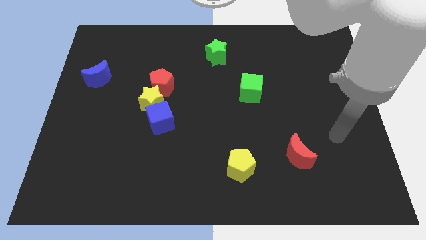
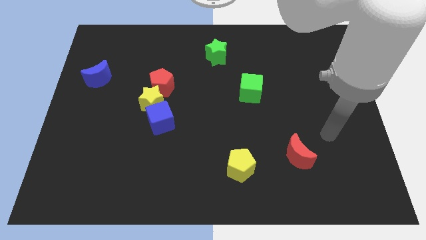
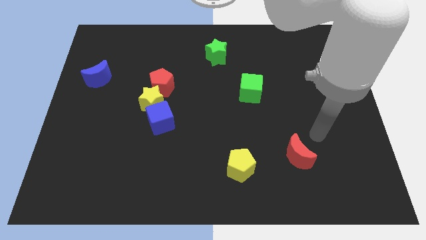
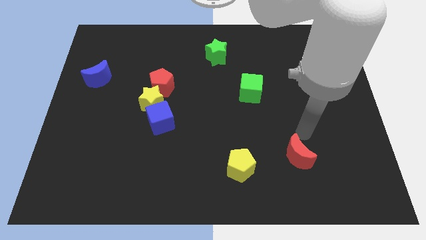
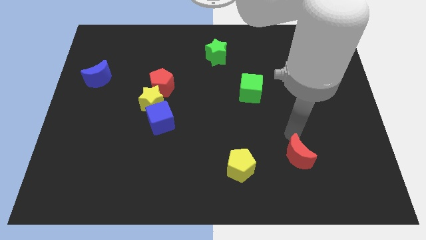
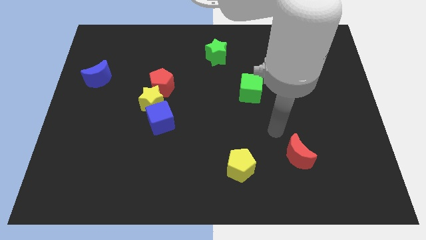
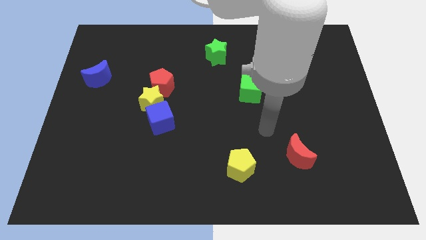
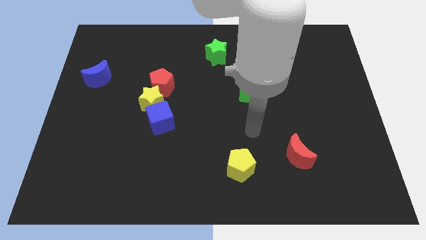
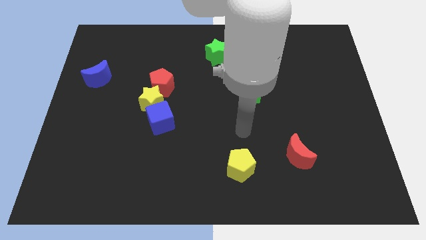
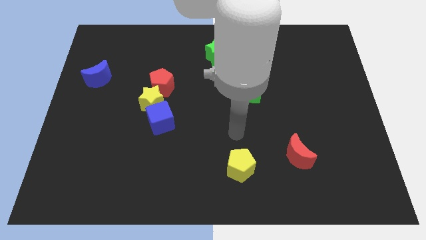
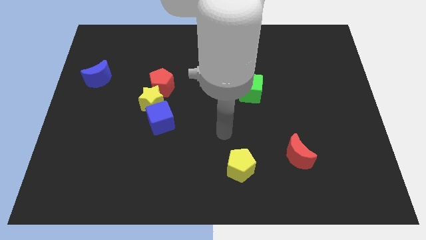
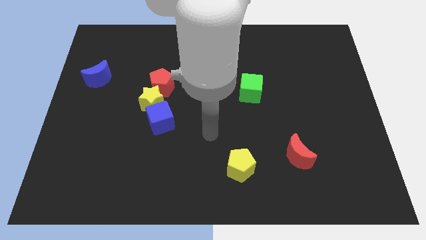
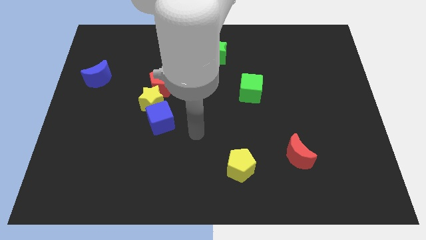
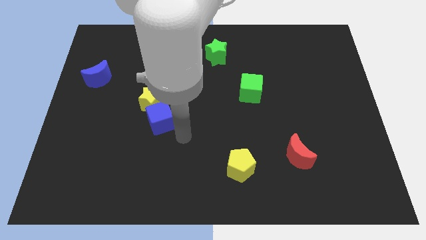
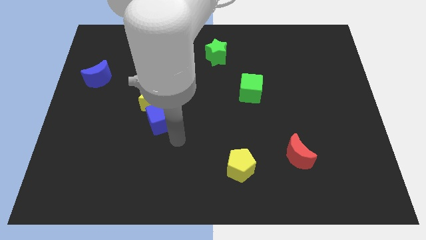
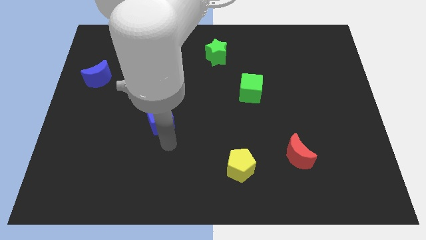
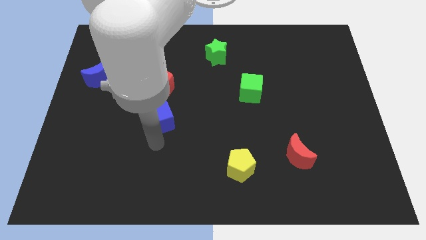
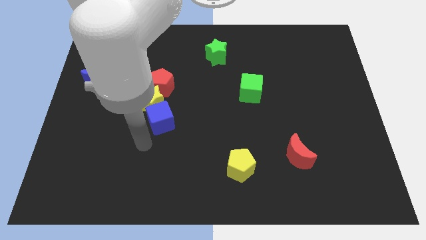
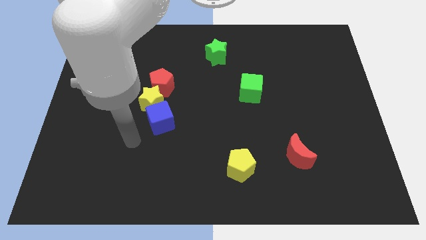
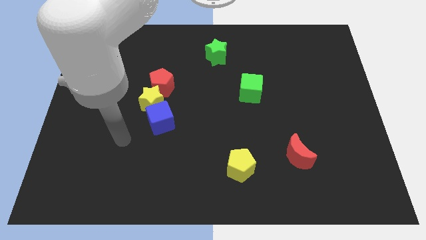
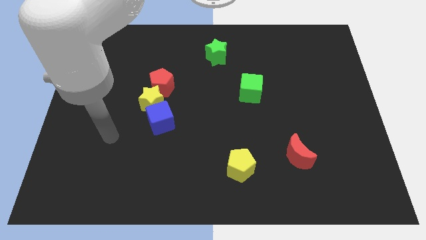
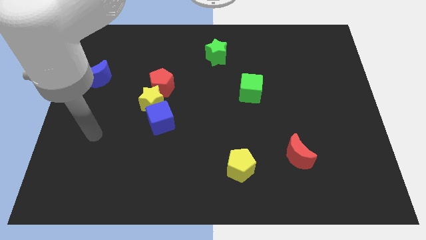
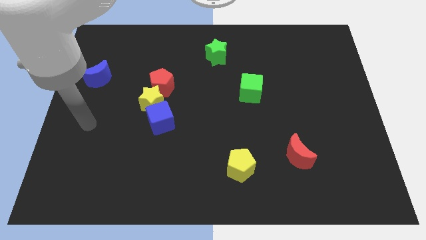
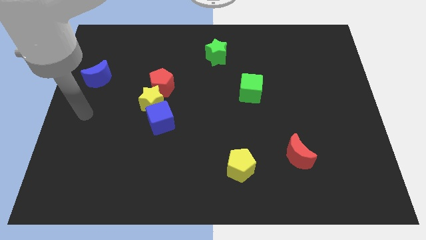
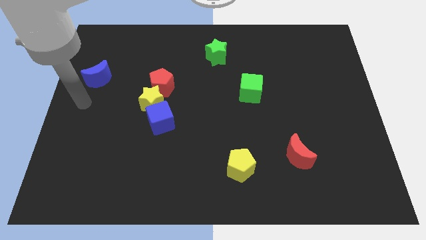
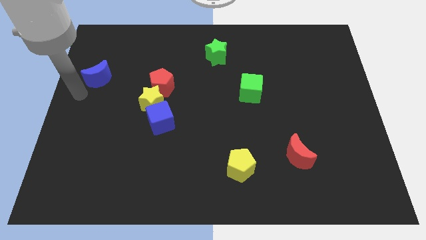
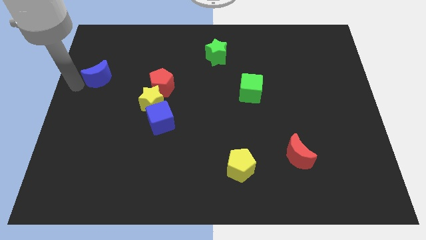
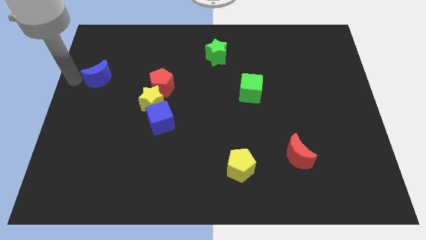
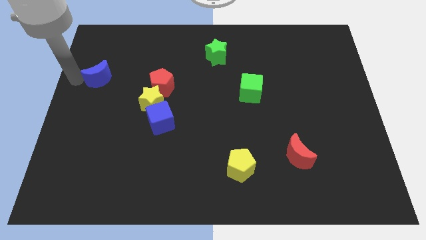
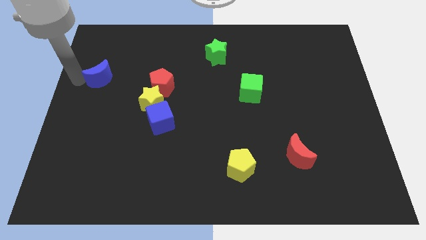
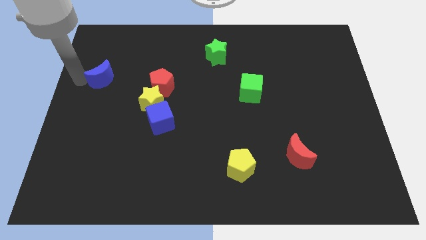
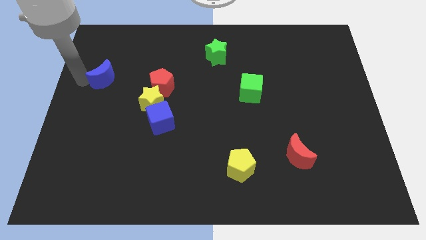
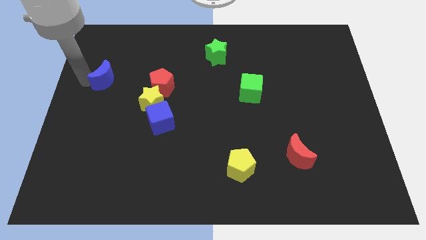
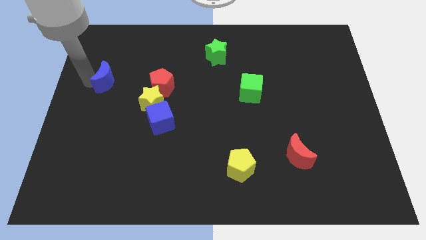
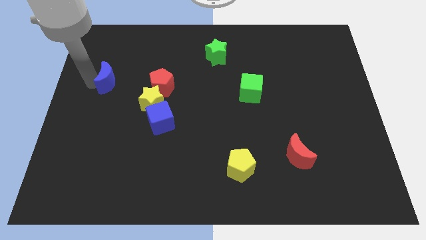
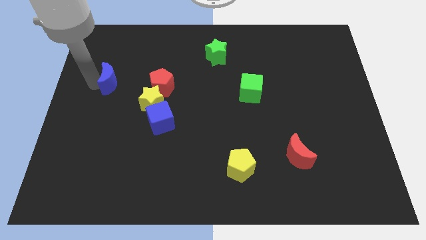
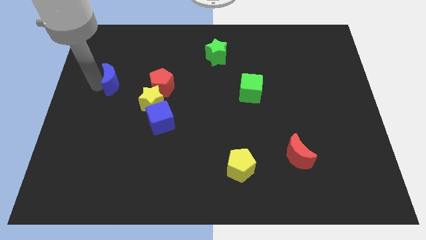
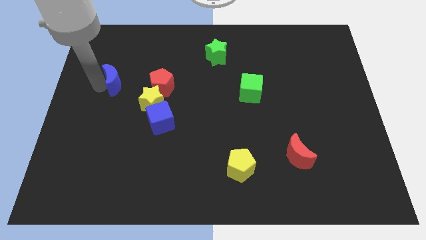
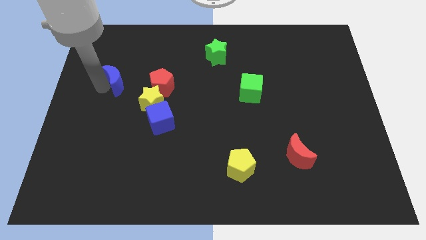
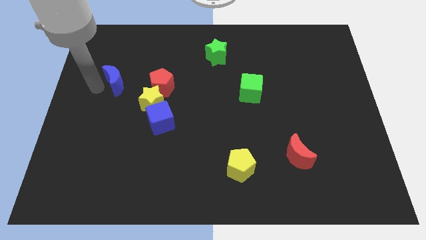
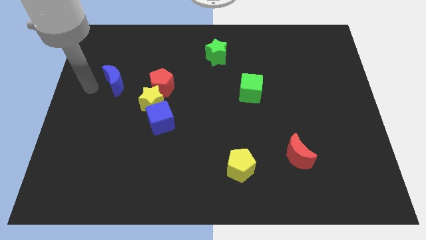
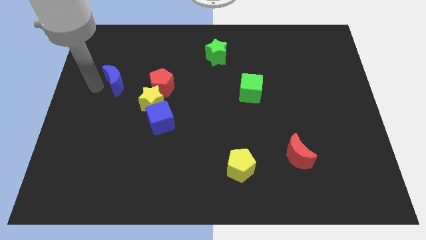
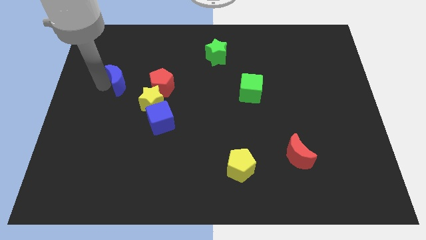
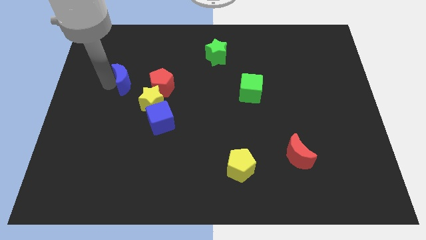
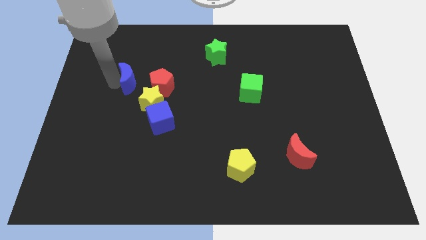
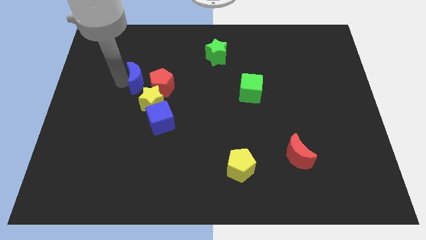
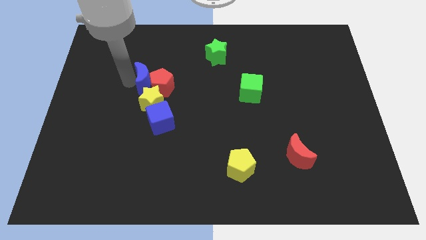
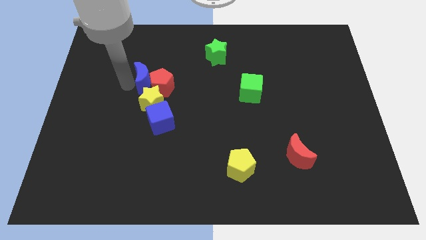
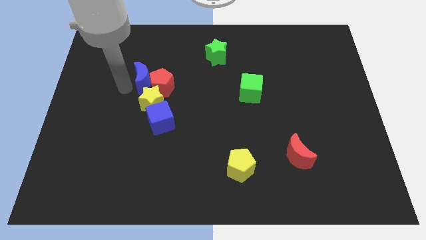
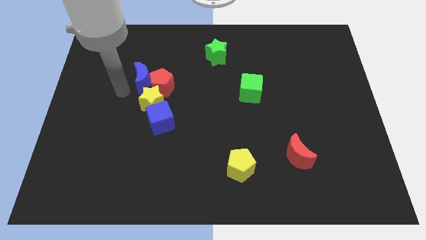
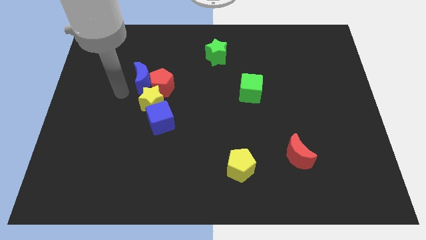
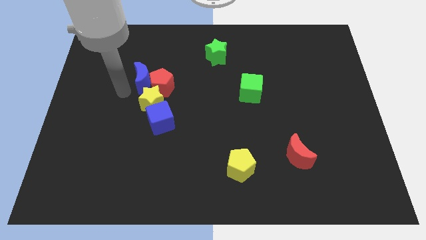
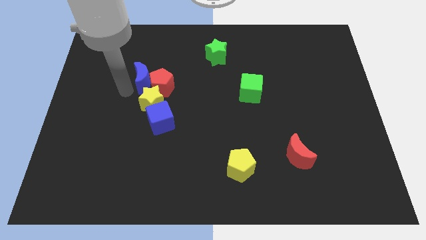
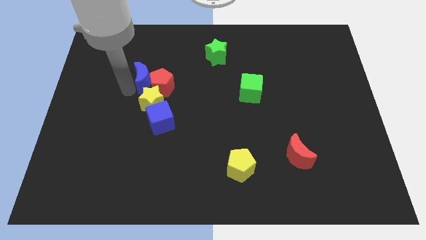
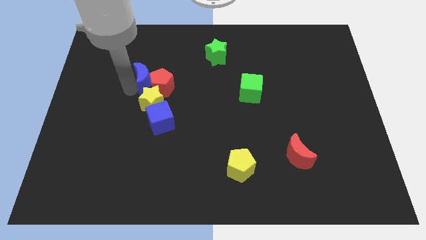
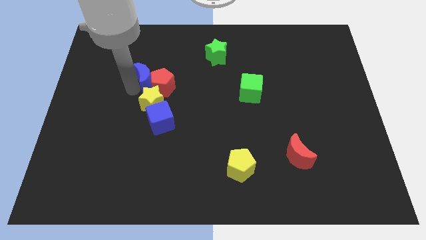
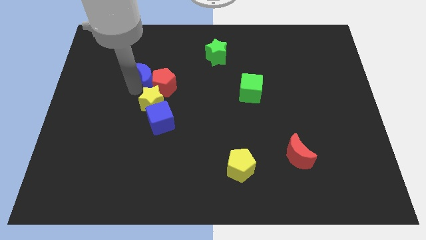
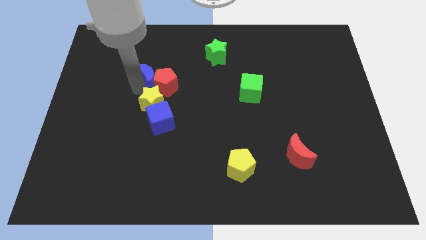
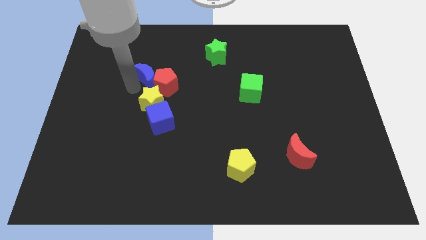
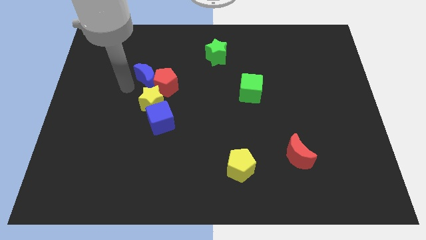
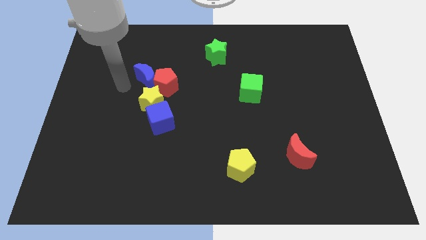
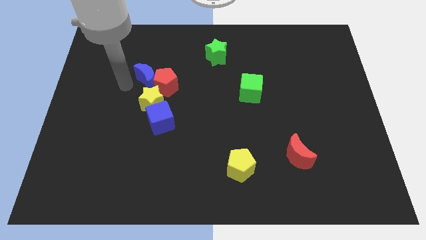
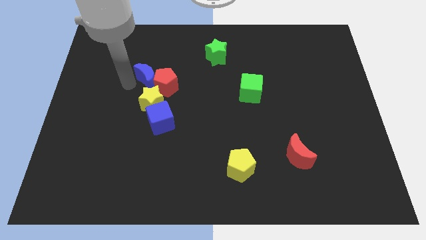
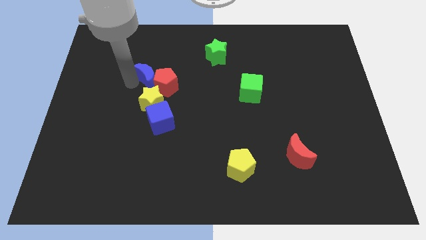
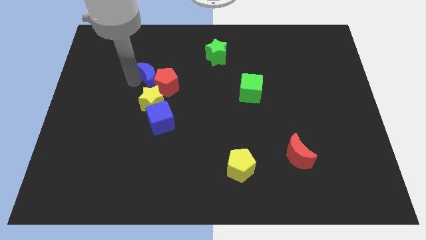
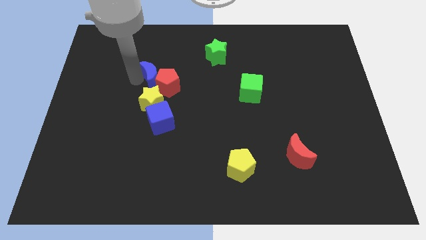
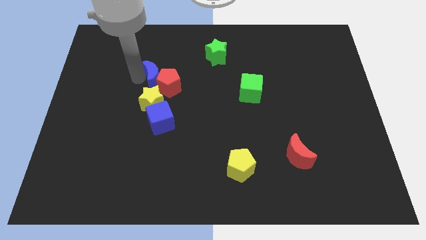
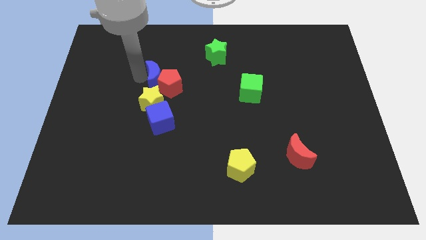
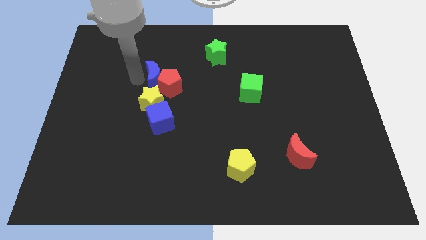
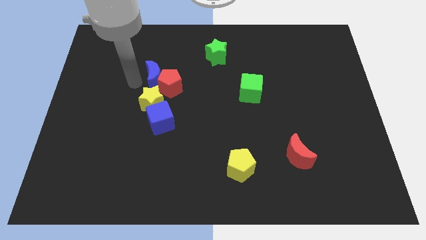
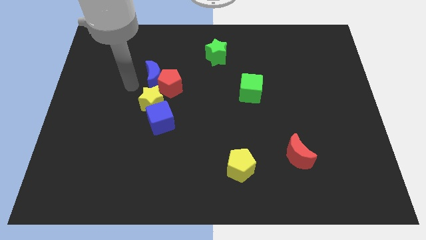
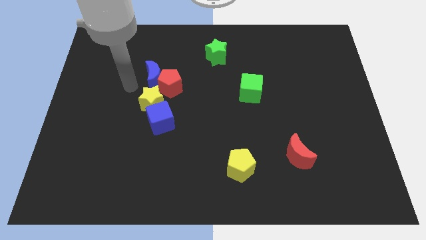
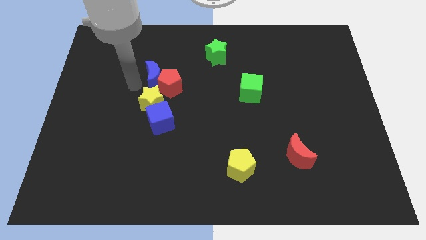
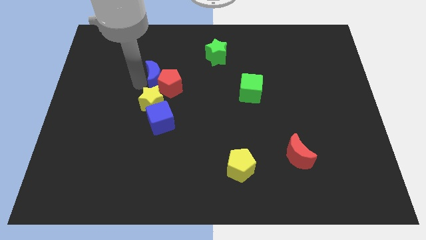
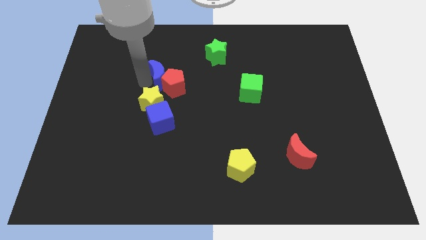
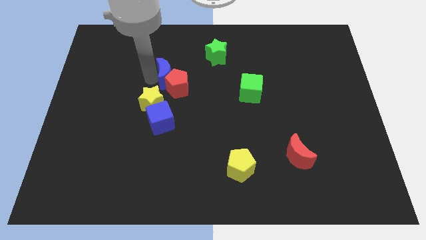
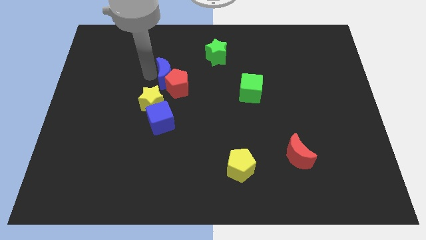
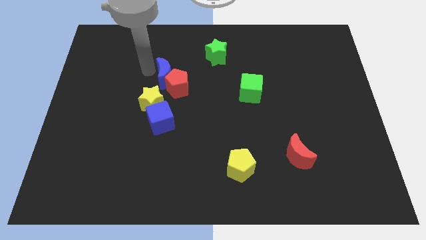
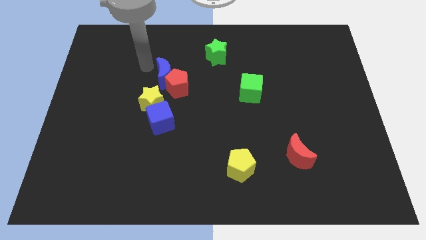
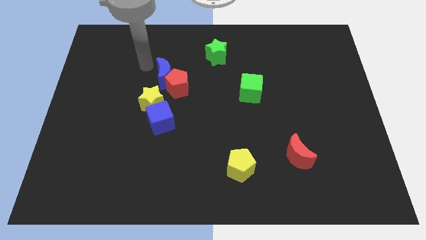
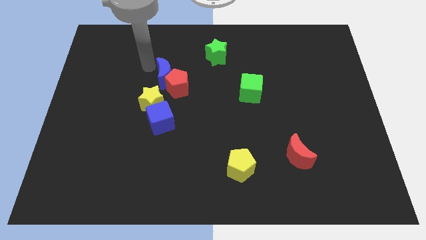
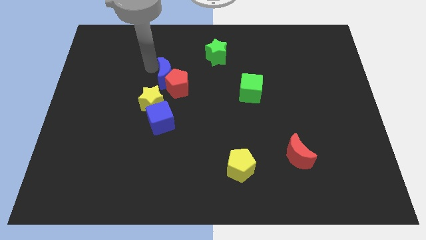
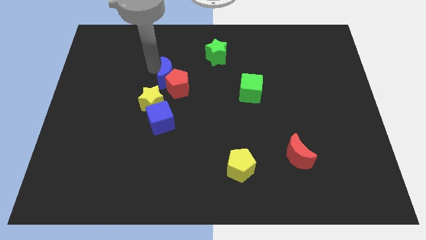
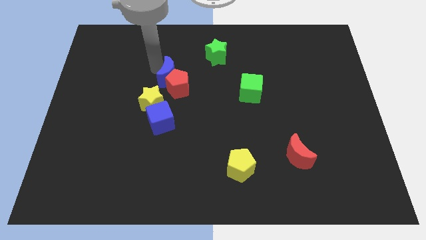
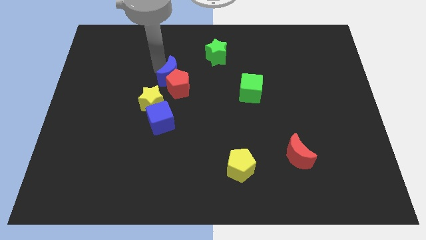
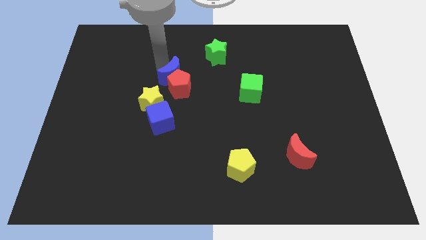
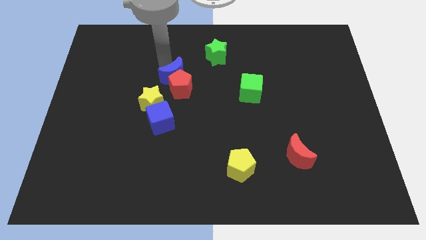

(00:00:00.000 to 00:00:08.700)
push the blue moon to the center of the board
